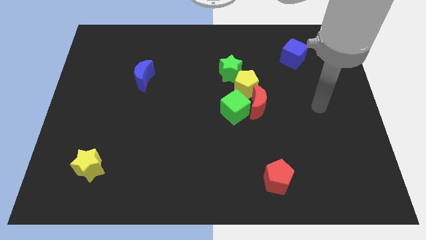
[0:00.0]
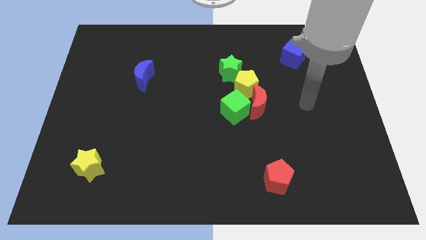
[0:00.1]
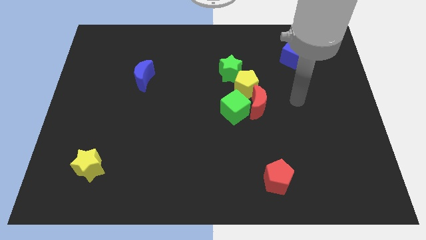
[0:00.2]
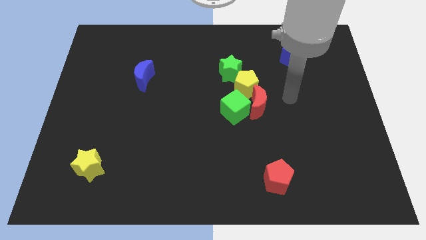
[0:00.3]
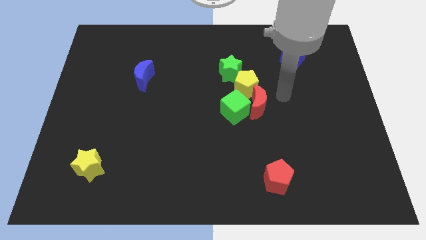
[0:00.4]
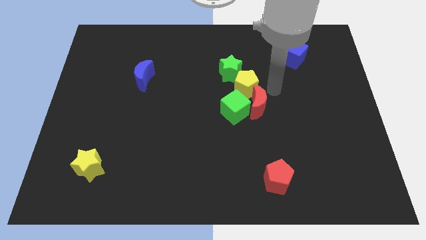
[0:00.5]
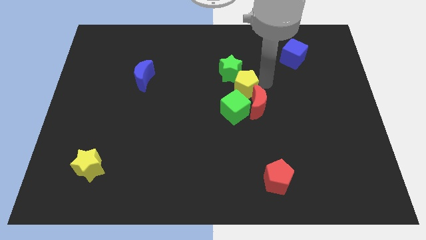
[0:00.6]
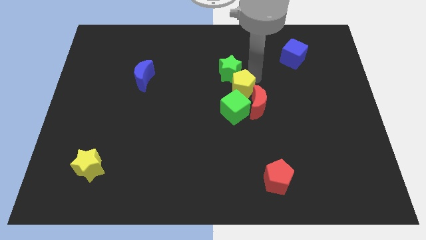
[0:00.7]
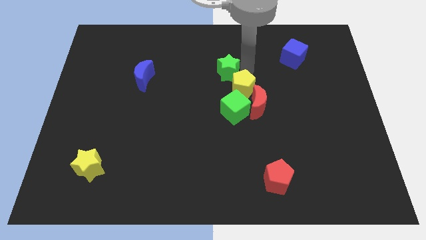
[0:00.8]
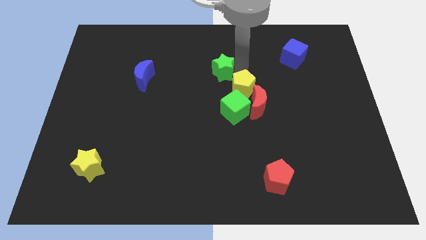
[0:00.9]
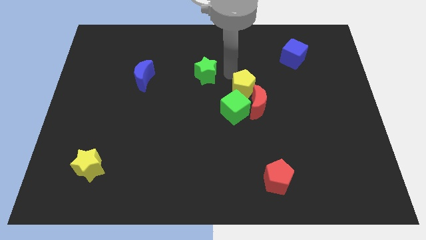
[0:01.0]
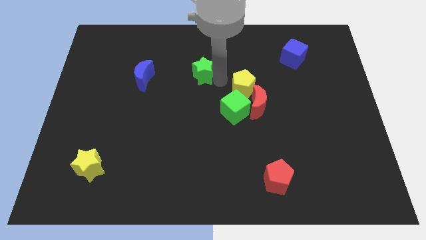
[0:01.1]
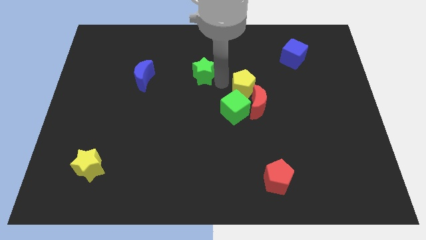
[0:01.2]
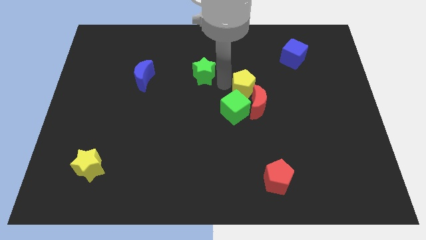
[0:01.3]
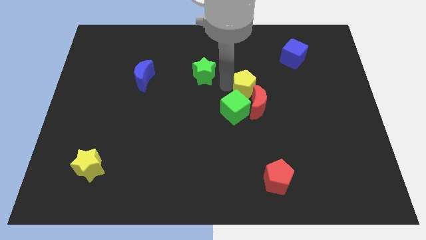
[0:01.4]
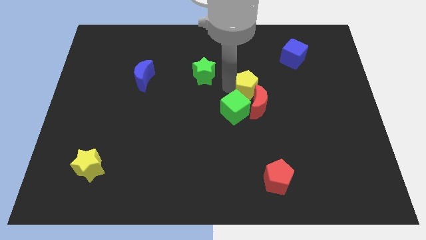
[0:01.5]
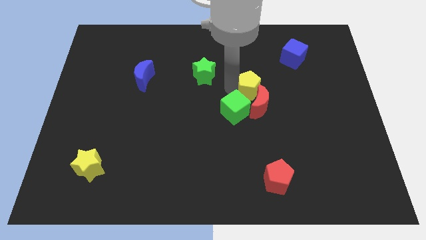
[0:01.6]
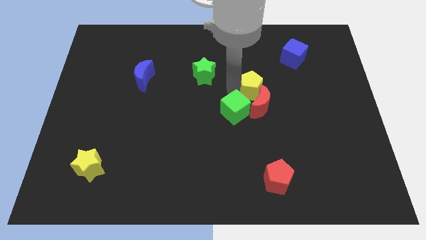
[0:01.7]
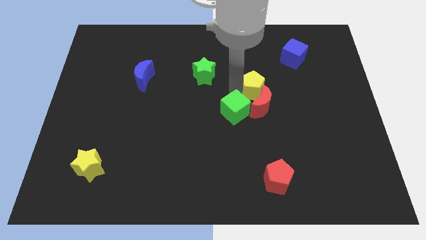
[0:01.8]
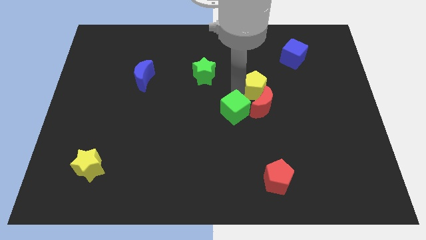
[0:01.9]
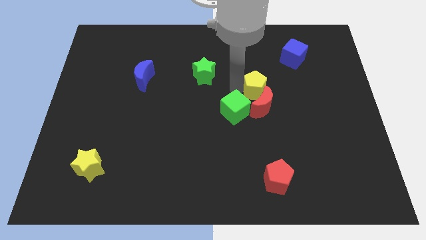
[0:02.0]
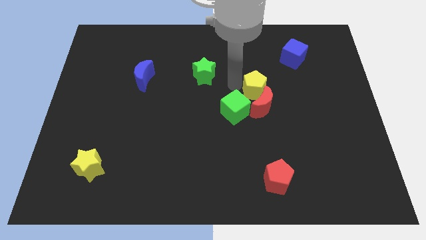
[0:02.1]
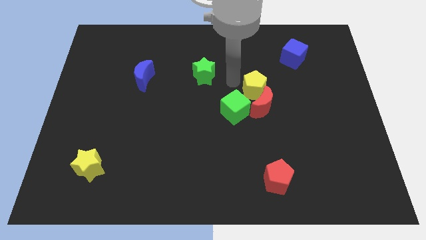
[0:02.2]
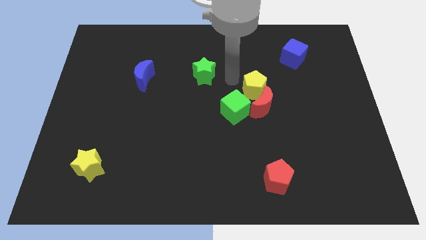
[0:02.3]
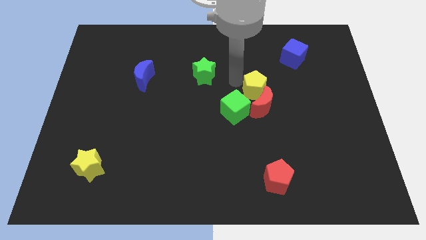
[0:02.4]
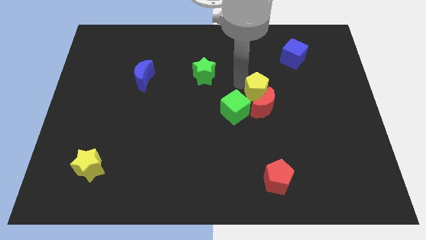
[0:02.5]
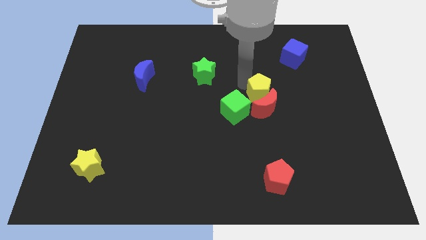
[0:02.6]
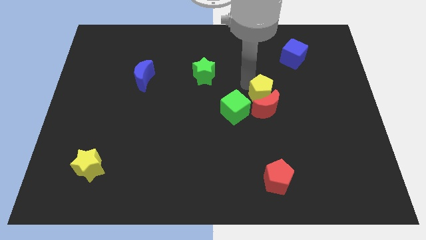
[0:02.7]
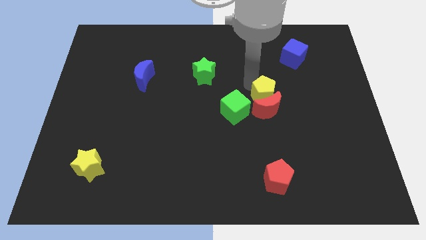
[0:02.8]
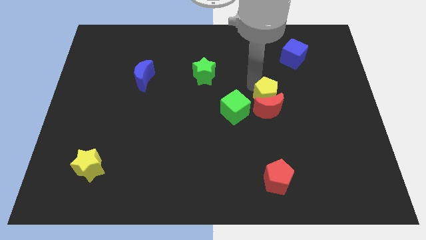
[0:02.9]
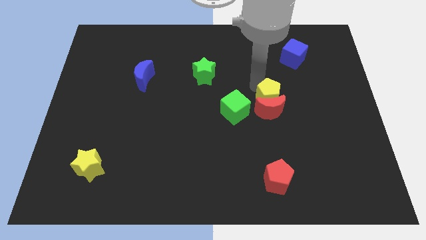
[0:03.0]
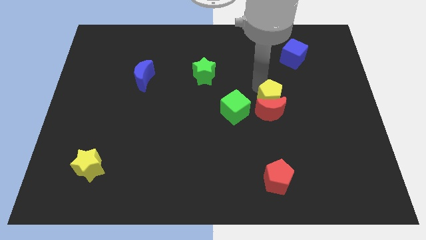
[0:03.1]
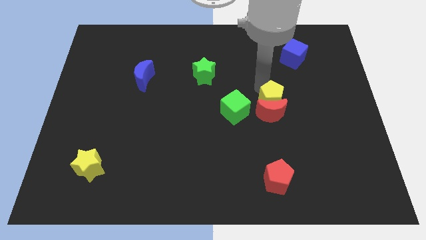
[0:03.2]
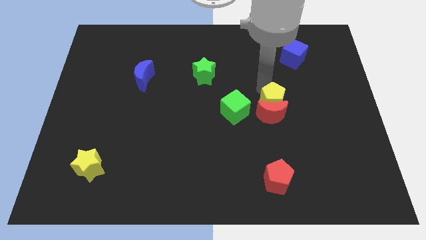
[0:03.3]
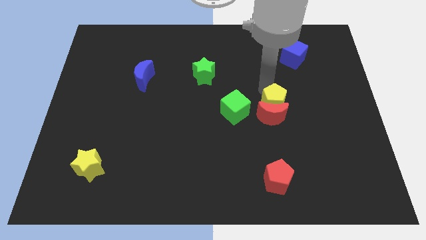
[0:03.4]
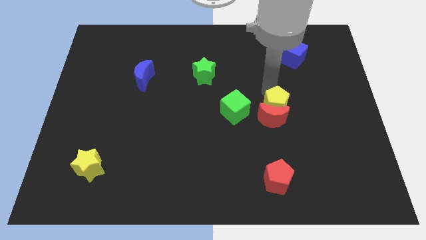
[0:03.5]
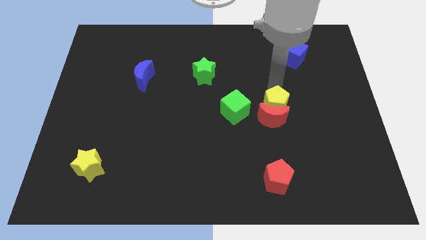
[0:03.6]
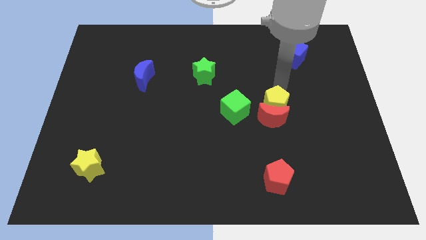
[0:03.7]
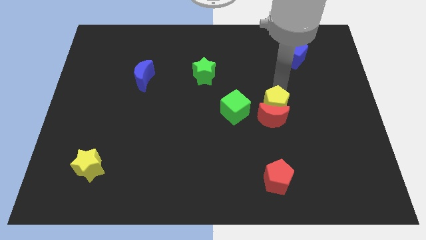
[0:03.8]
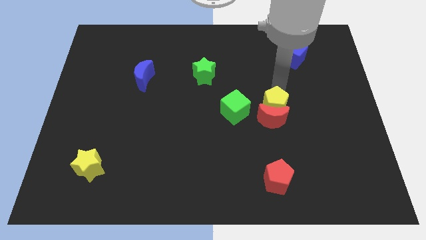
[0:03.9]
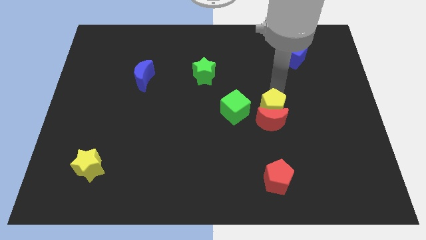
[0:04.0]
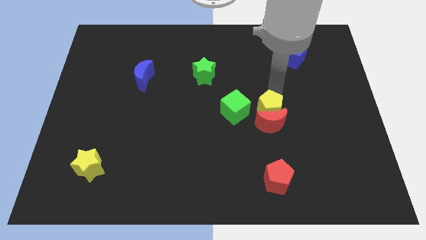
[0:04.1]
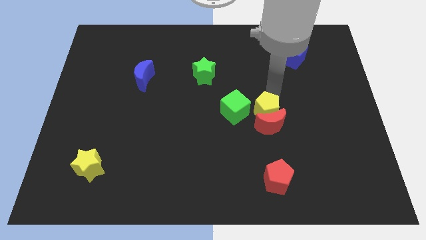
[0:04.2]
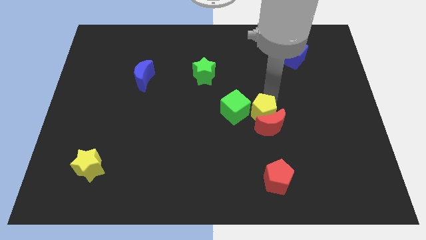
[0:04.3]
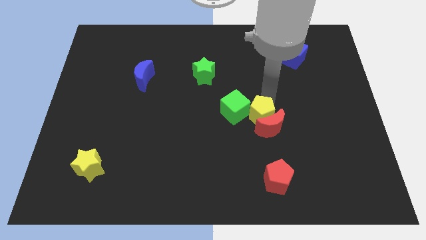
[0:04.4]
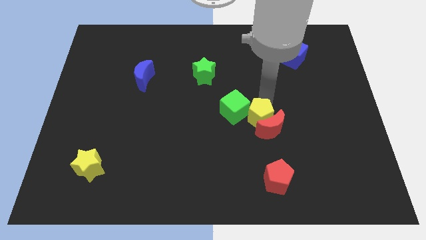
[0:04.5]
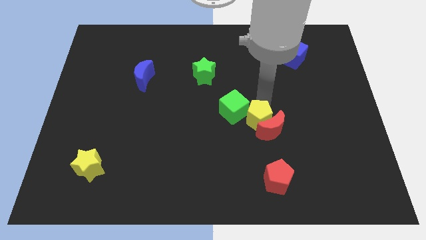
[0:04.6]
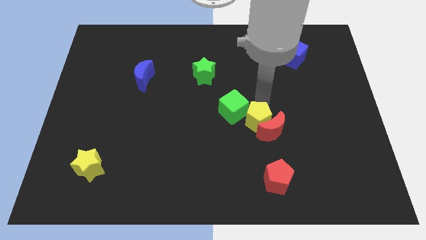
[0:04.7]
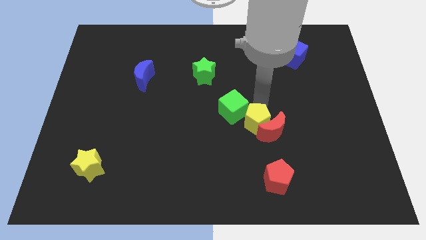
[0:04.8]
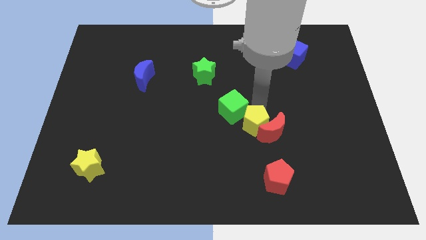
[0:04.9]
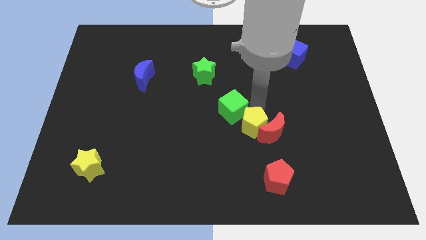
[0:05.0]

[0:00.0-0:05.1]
push the yellow pentagon to the bottom of the green cube

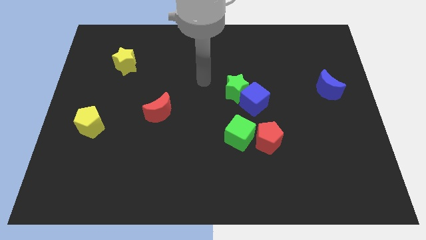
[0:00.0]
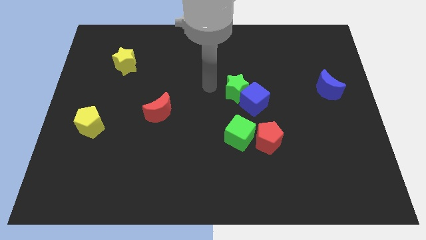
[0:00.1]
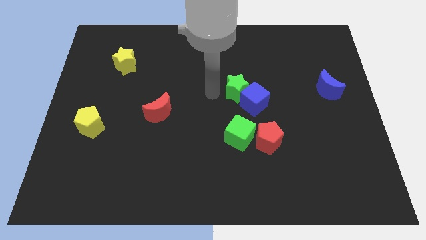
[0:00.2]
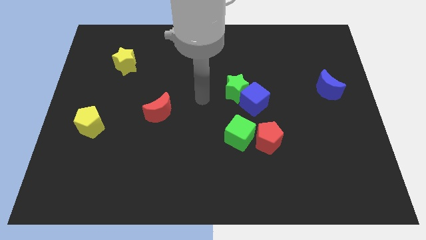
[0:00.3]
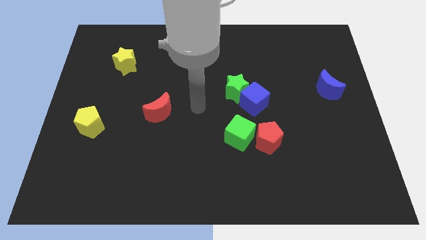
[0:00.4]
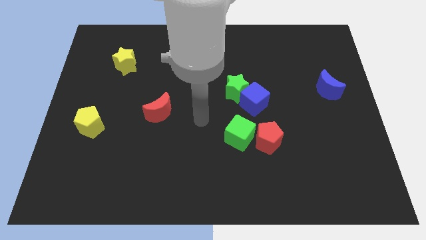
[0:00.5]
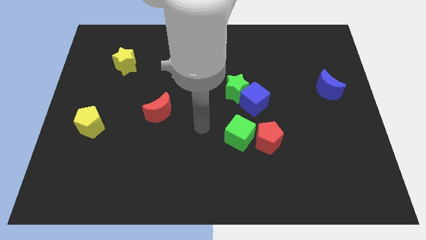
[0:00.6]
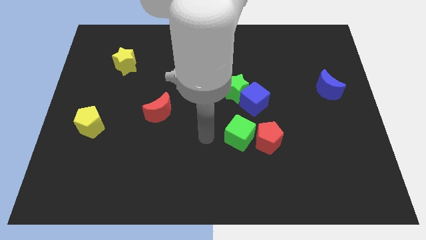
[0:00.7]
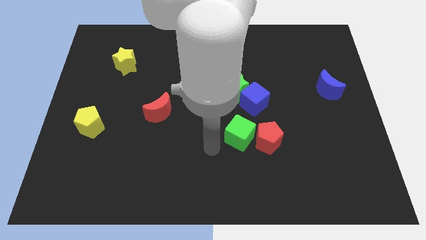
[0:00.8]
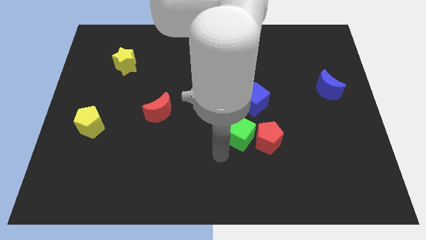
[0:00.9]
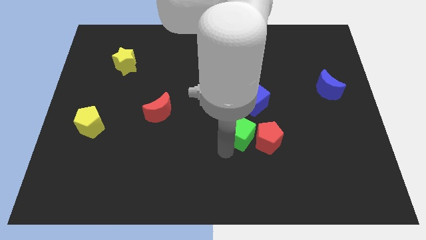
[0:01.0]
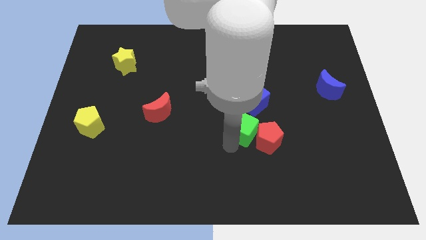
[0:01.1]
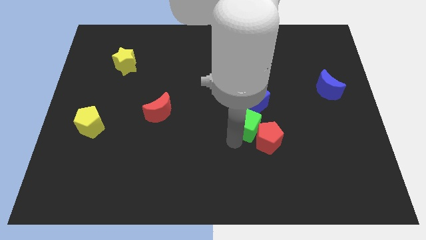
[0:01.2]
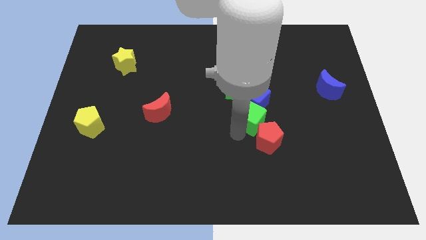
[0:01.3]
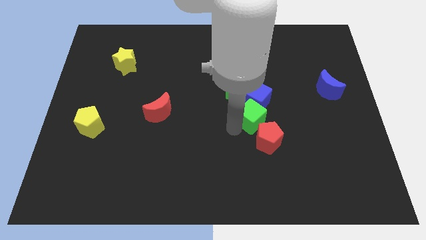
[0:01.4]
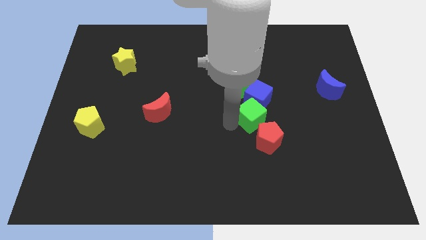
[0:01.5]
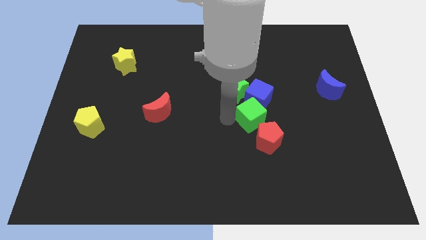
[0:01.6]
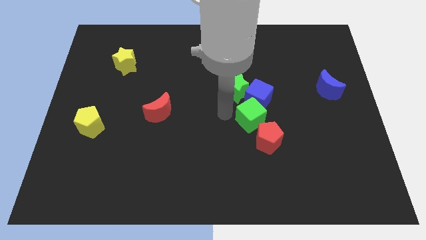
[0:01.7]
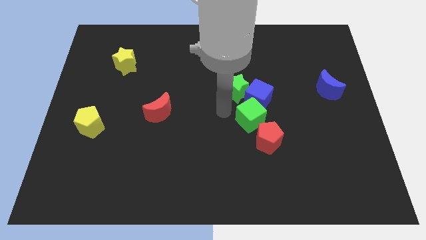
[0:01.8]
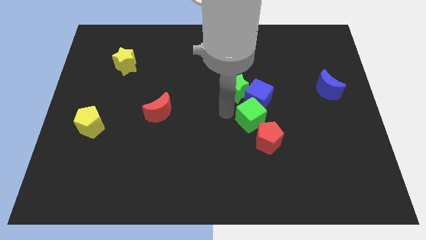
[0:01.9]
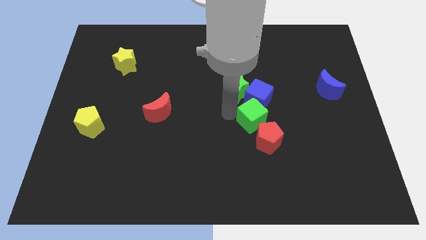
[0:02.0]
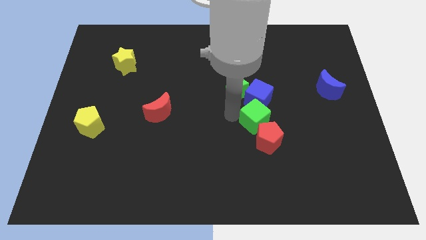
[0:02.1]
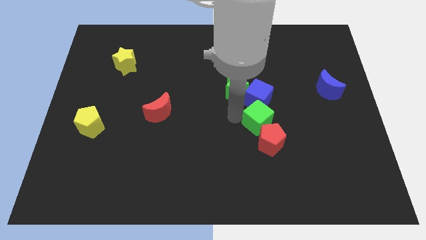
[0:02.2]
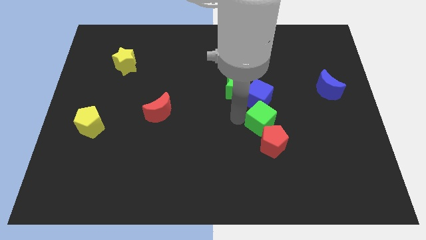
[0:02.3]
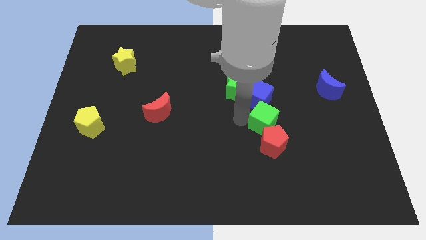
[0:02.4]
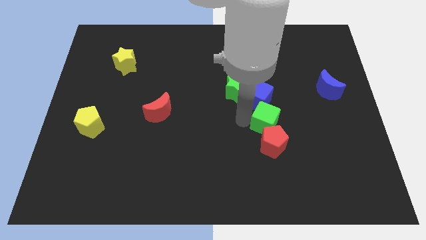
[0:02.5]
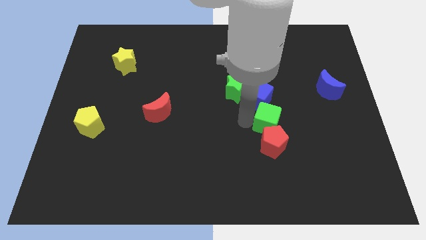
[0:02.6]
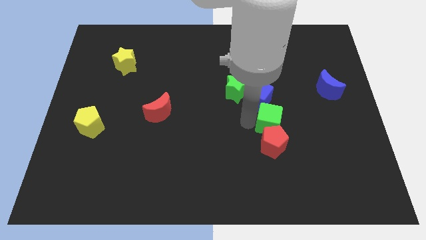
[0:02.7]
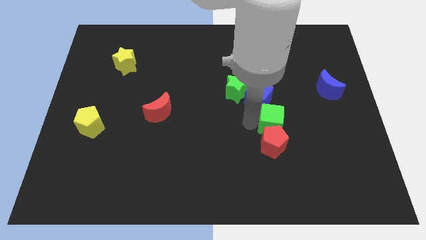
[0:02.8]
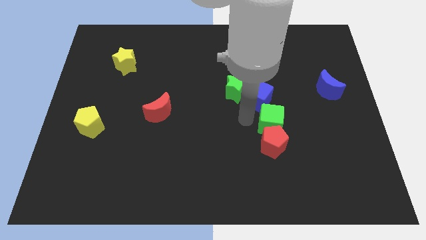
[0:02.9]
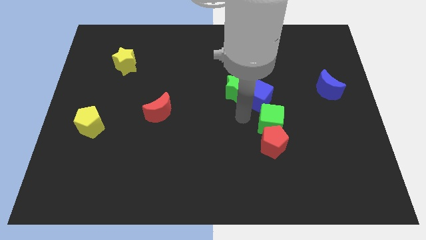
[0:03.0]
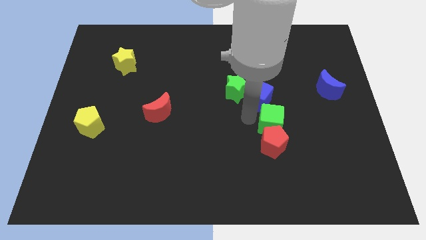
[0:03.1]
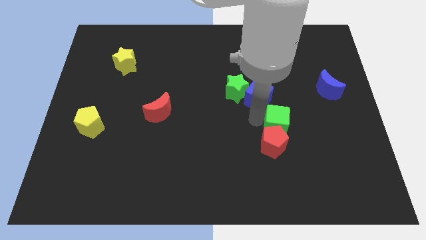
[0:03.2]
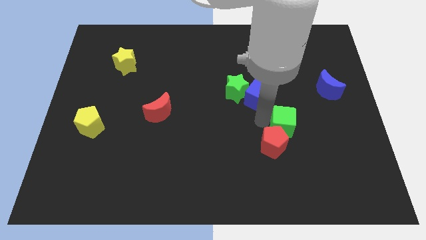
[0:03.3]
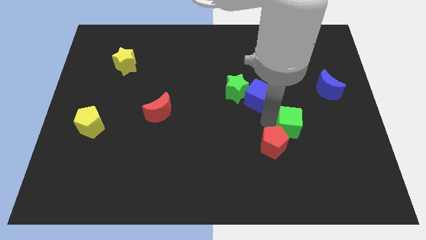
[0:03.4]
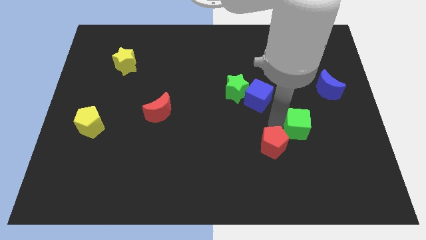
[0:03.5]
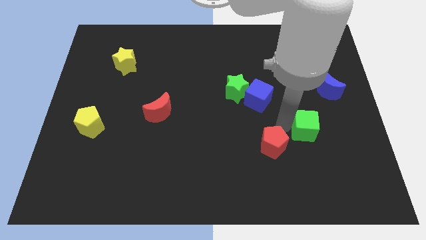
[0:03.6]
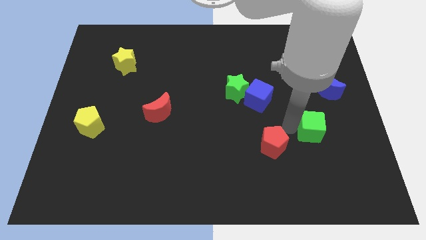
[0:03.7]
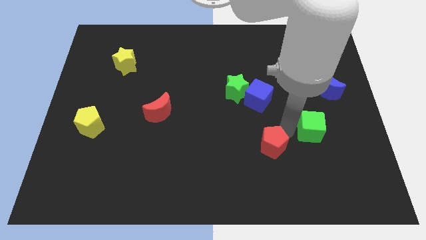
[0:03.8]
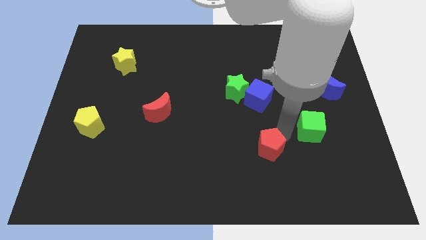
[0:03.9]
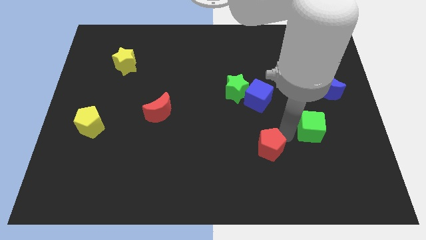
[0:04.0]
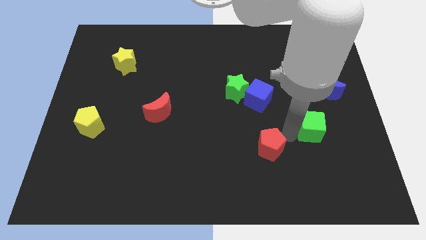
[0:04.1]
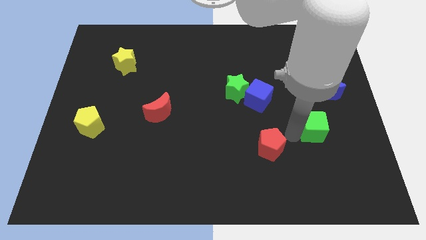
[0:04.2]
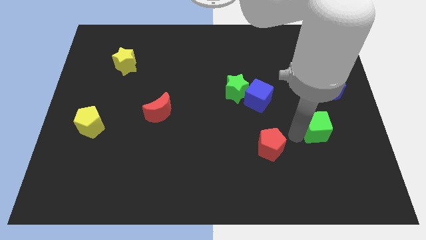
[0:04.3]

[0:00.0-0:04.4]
move the green cube below the blue moon
